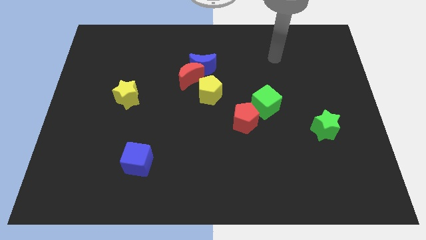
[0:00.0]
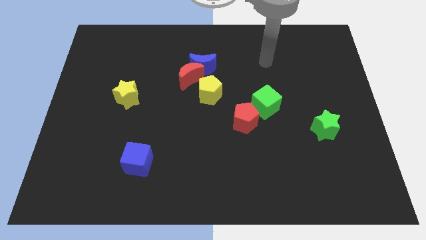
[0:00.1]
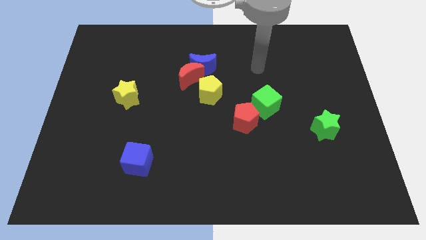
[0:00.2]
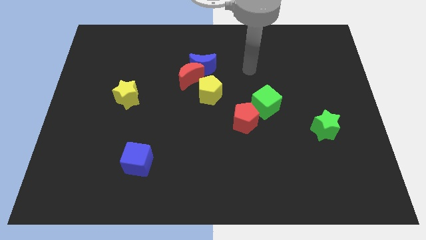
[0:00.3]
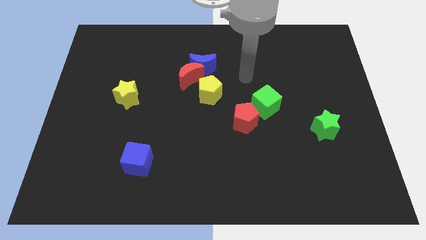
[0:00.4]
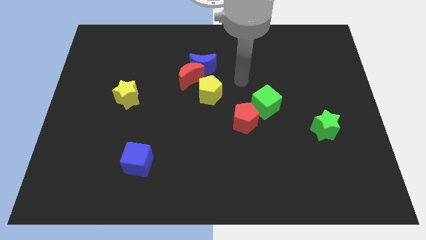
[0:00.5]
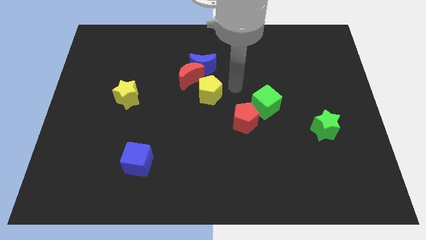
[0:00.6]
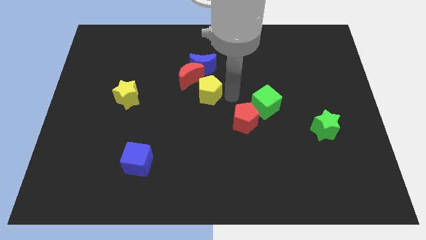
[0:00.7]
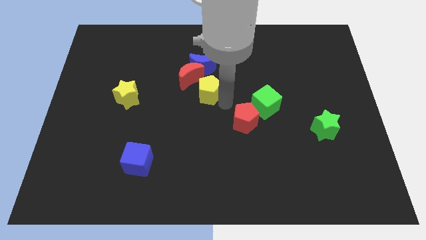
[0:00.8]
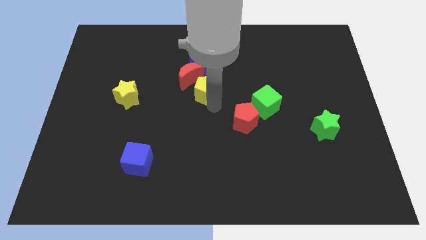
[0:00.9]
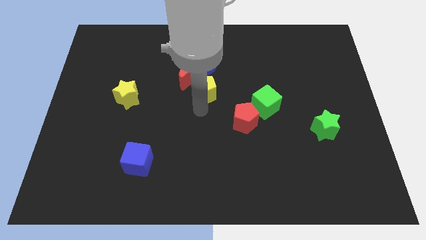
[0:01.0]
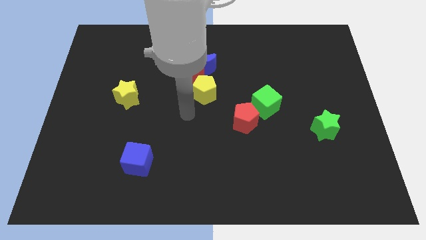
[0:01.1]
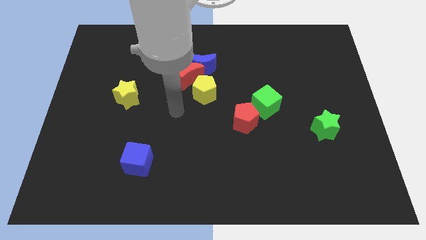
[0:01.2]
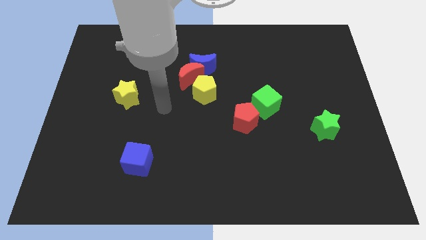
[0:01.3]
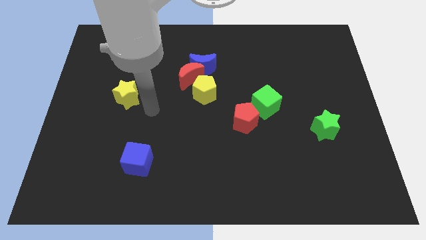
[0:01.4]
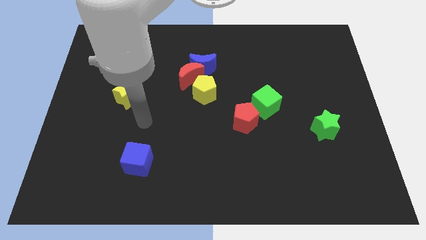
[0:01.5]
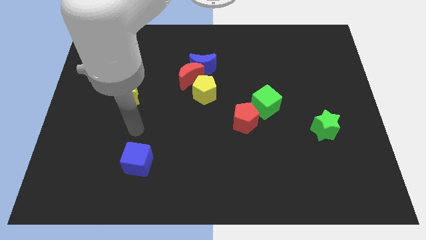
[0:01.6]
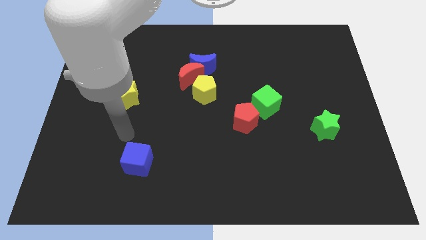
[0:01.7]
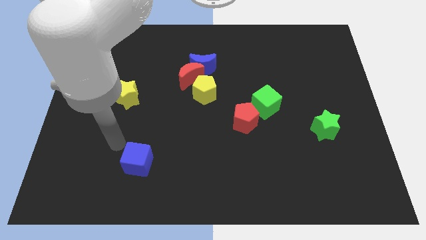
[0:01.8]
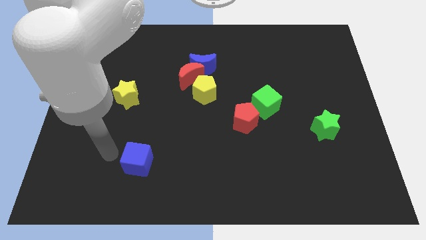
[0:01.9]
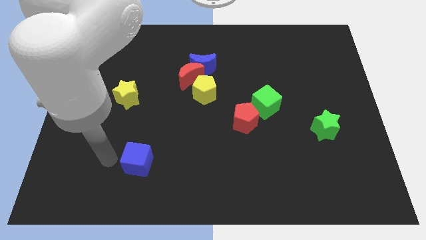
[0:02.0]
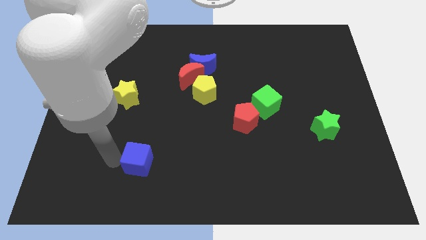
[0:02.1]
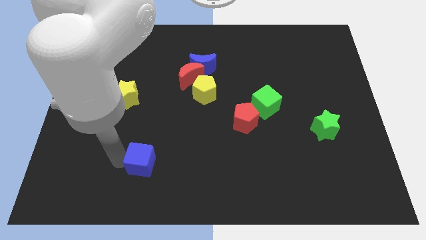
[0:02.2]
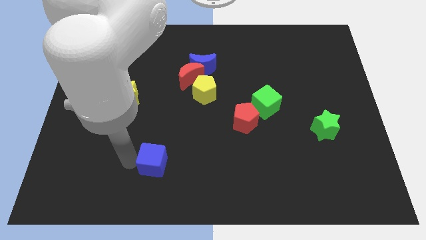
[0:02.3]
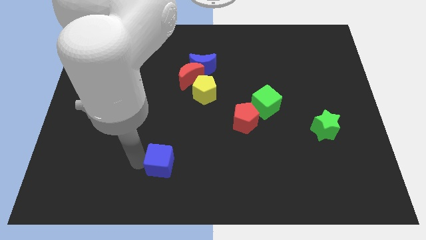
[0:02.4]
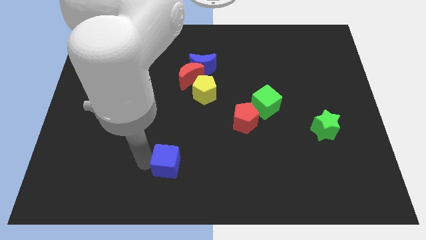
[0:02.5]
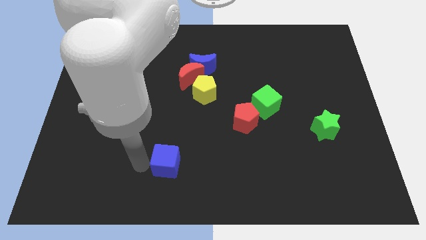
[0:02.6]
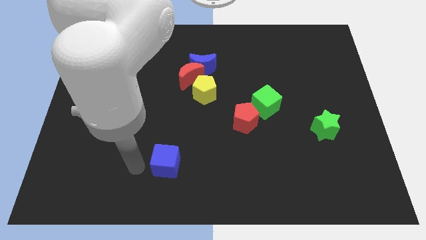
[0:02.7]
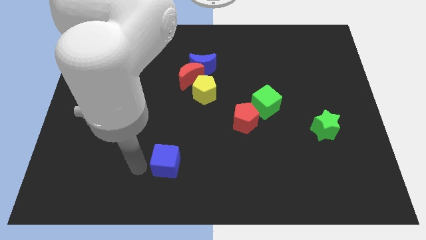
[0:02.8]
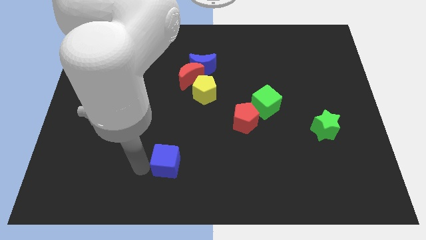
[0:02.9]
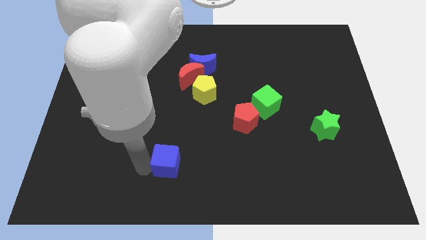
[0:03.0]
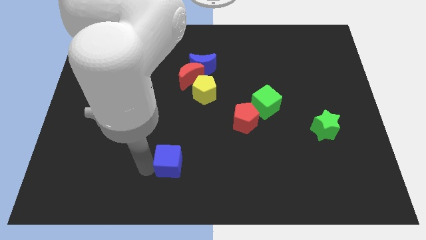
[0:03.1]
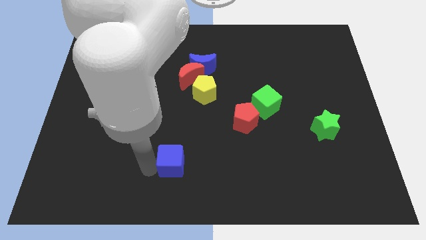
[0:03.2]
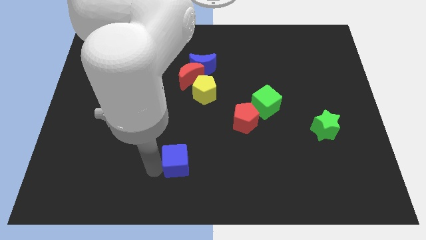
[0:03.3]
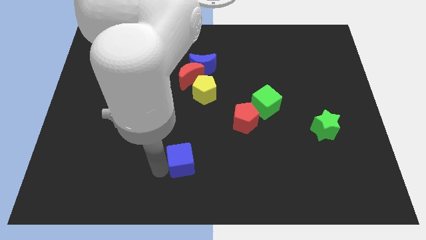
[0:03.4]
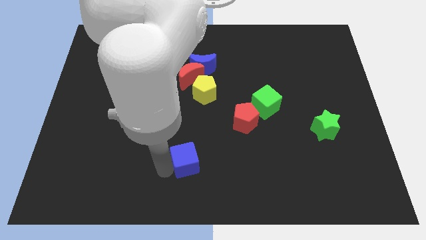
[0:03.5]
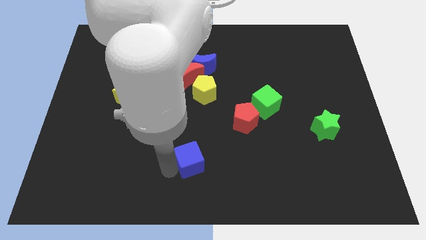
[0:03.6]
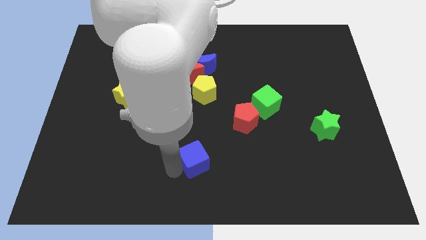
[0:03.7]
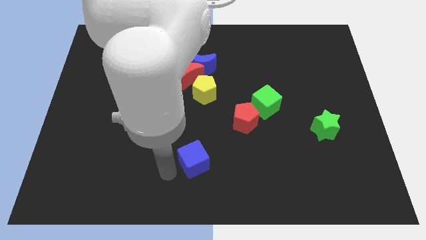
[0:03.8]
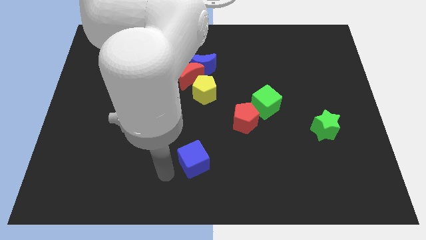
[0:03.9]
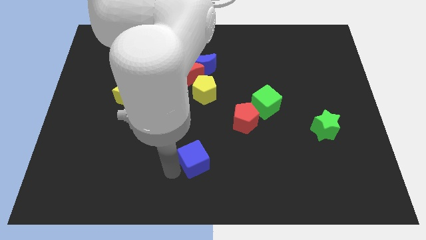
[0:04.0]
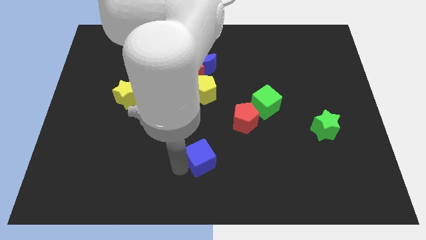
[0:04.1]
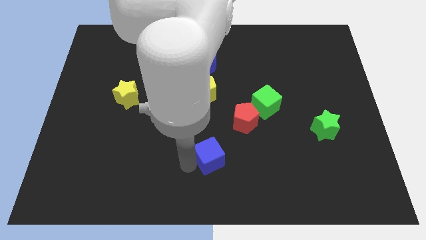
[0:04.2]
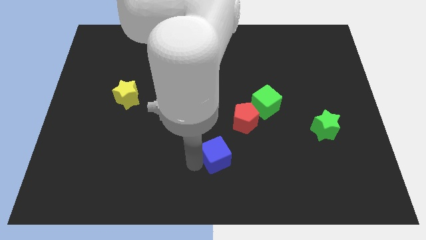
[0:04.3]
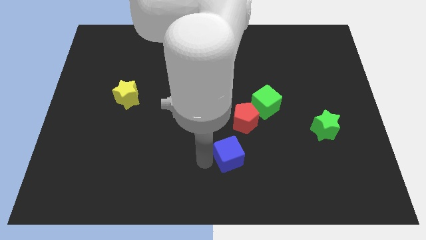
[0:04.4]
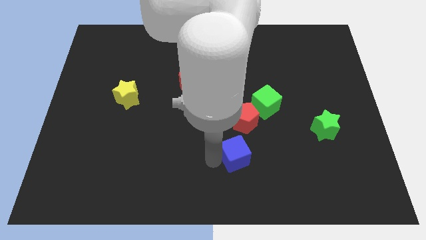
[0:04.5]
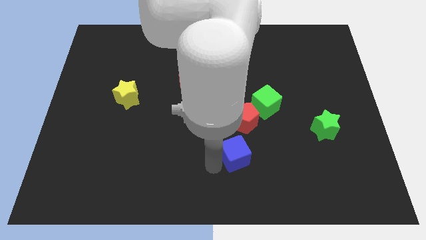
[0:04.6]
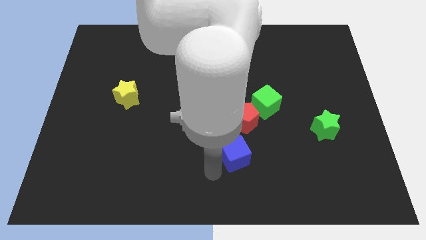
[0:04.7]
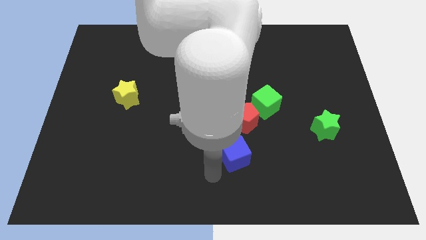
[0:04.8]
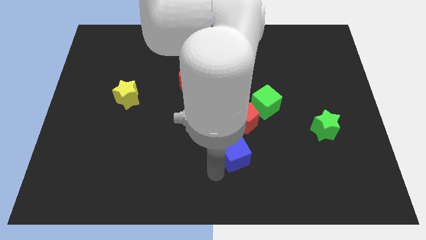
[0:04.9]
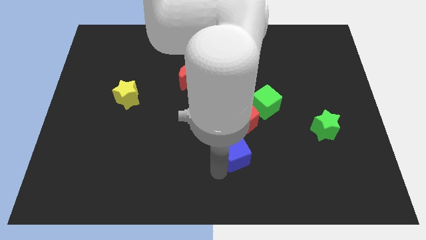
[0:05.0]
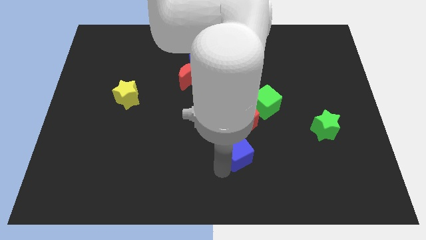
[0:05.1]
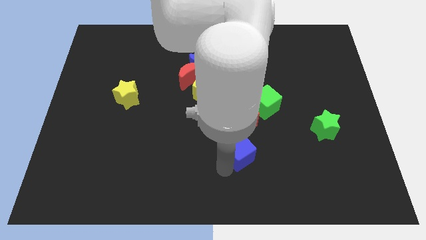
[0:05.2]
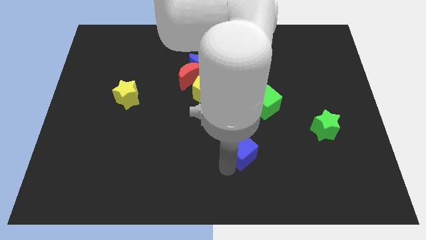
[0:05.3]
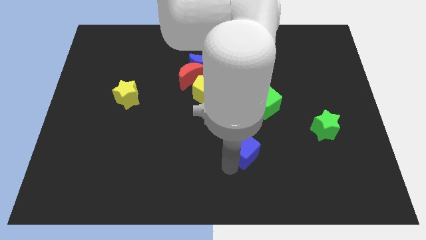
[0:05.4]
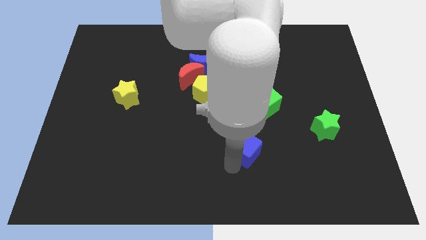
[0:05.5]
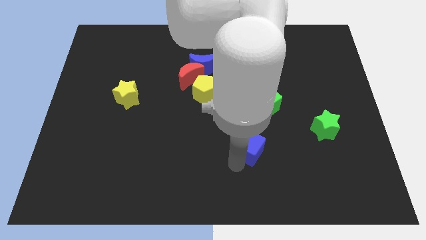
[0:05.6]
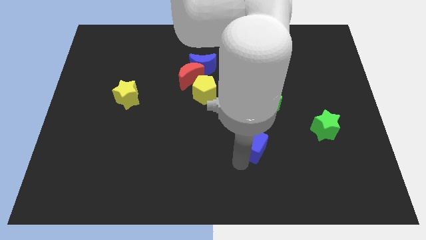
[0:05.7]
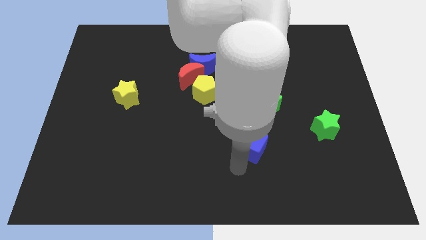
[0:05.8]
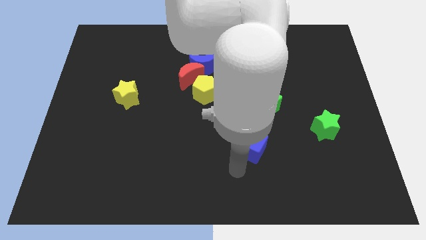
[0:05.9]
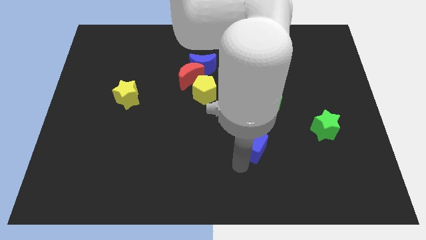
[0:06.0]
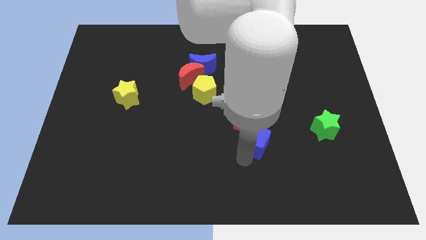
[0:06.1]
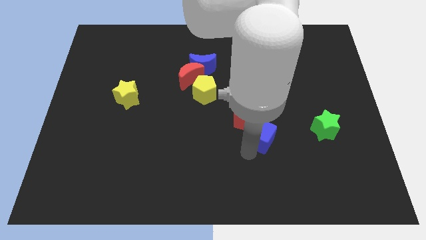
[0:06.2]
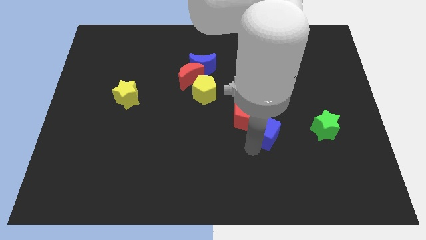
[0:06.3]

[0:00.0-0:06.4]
slide the blue cube to the right of the red pentagon

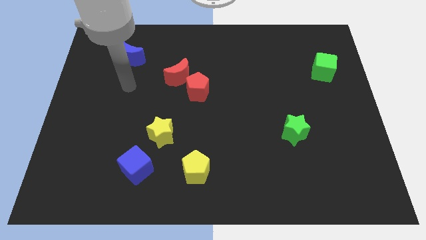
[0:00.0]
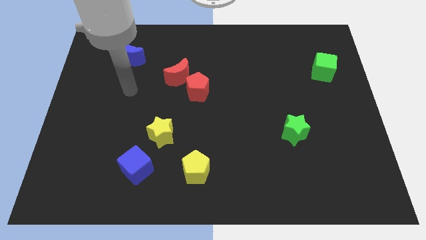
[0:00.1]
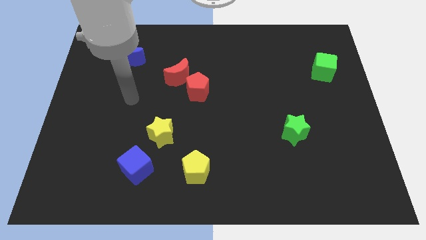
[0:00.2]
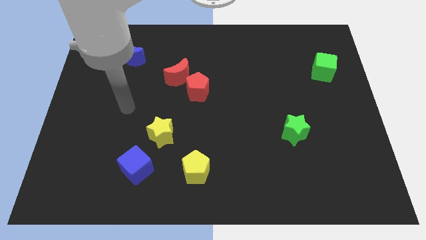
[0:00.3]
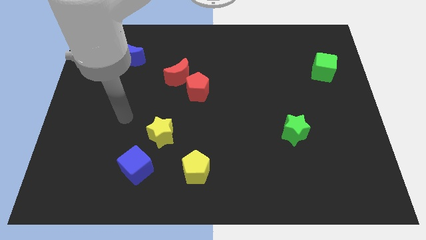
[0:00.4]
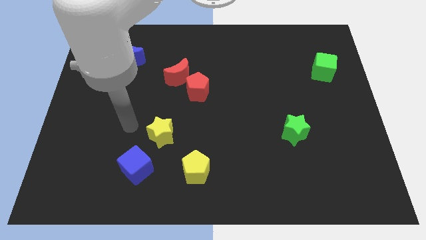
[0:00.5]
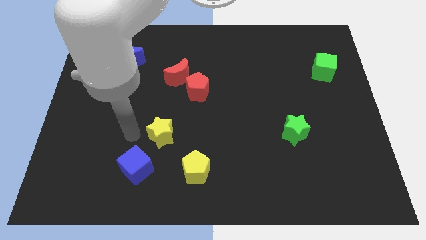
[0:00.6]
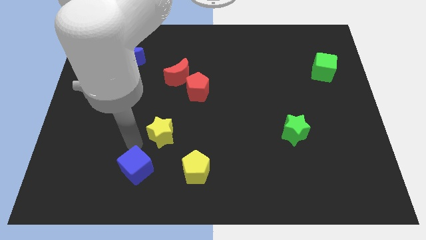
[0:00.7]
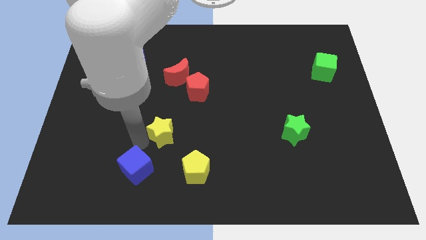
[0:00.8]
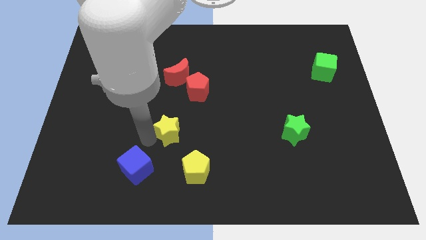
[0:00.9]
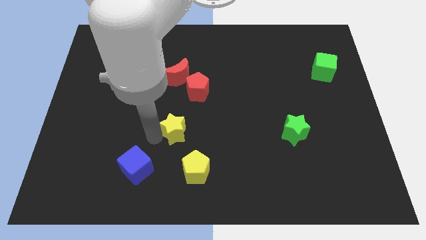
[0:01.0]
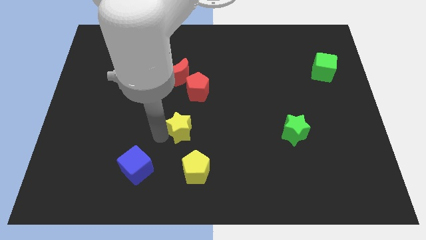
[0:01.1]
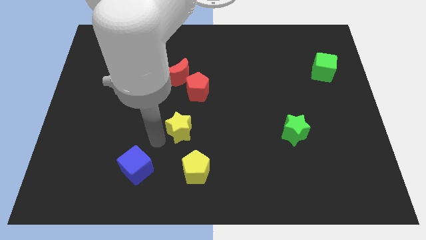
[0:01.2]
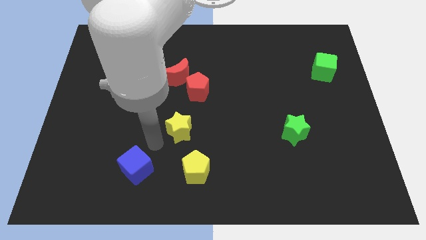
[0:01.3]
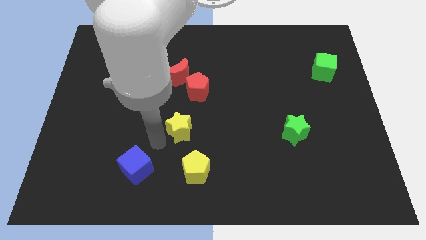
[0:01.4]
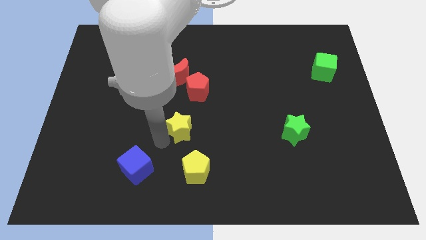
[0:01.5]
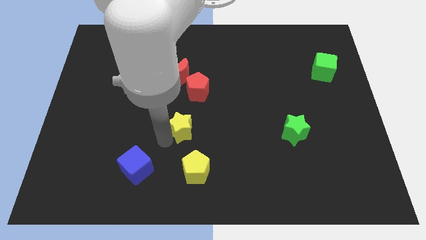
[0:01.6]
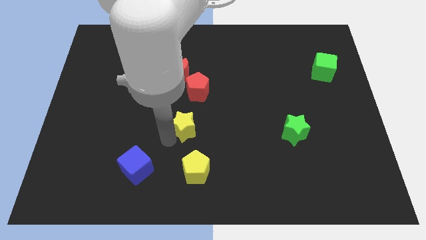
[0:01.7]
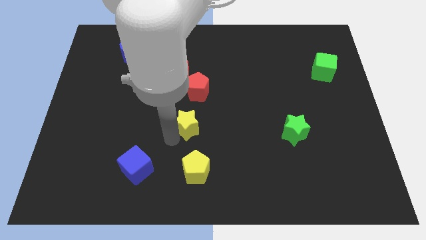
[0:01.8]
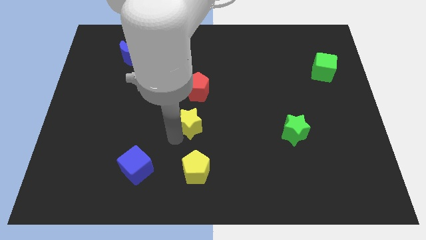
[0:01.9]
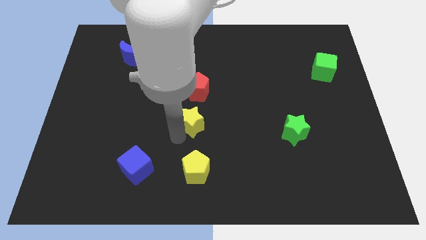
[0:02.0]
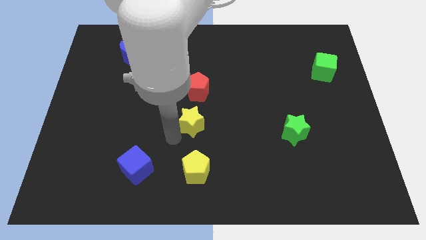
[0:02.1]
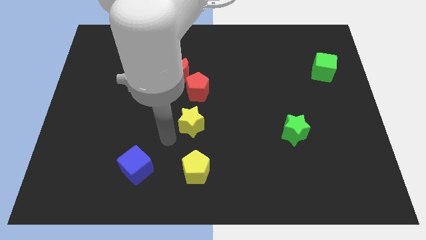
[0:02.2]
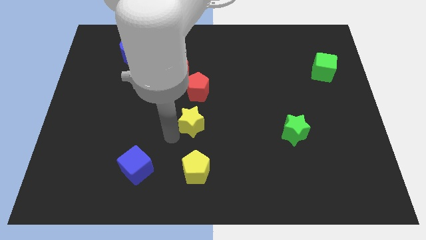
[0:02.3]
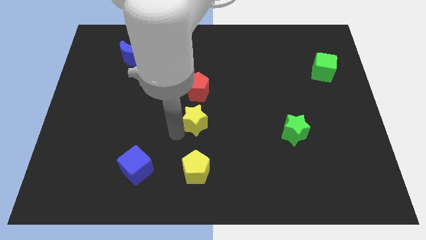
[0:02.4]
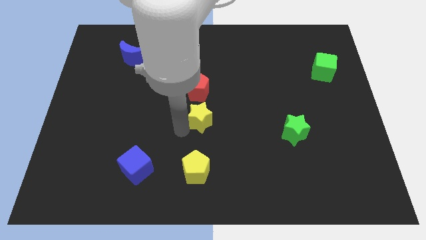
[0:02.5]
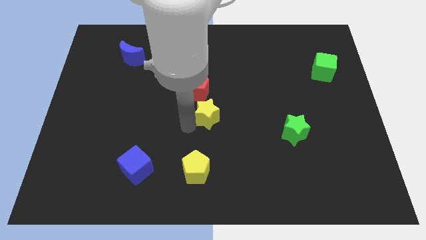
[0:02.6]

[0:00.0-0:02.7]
move the yellow star diagonally down and to the right of the red pentagon
